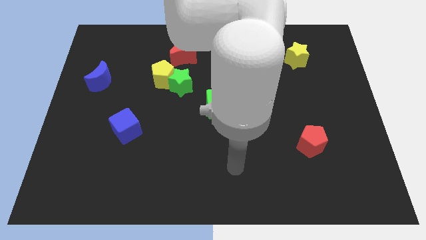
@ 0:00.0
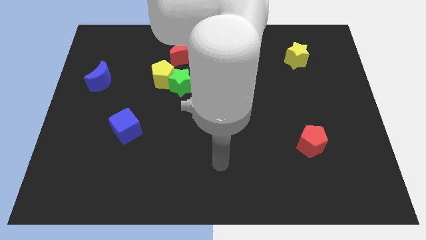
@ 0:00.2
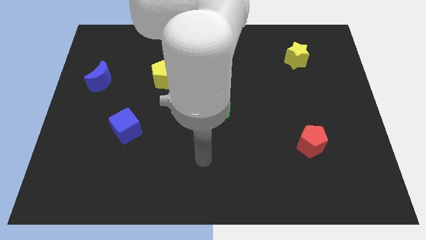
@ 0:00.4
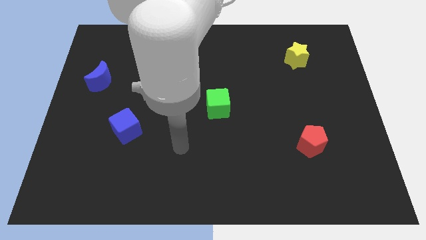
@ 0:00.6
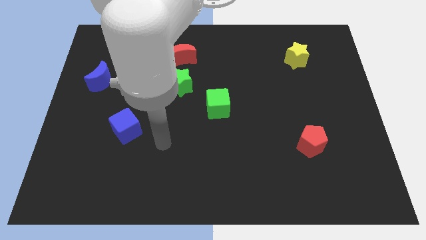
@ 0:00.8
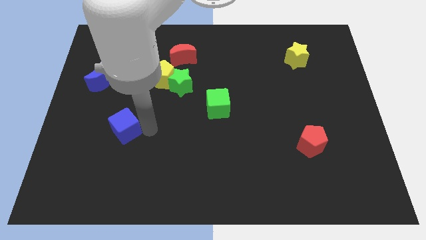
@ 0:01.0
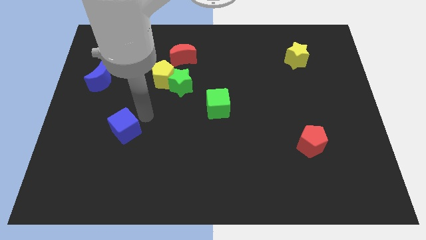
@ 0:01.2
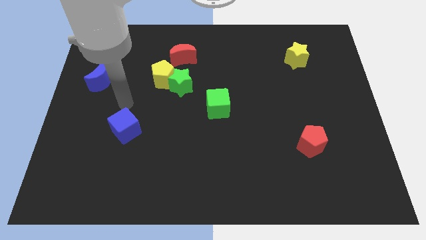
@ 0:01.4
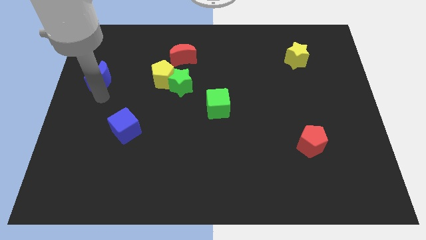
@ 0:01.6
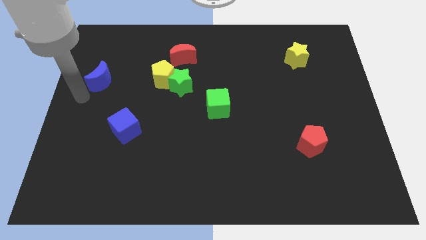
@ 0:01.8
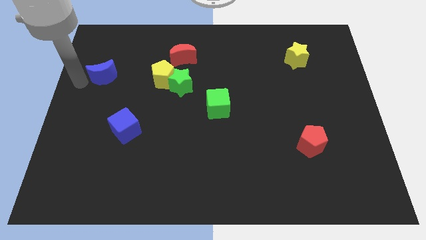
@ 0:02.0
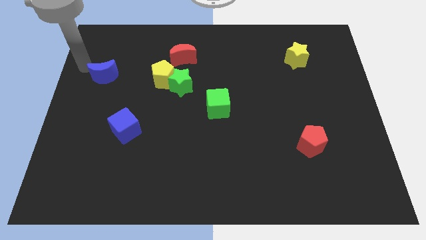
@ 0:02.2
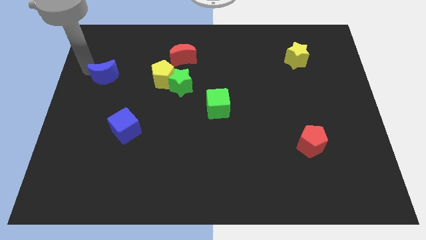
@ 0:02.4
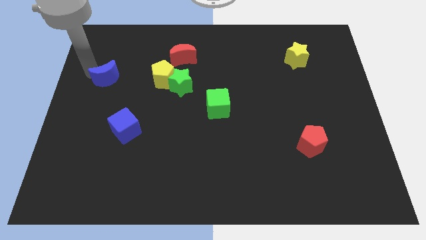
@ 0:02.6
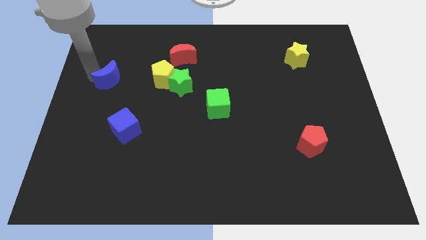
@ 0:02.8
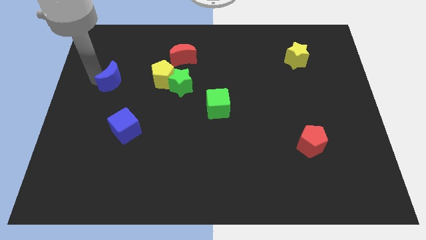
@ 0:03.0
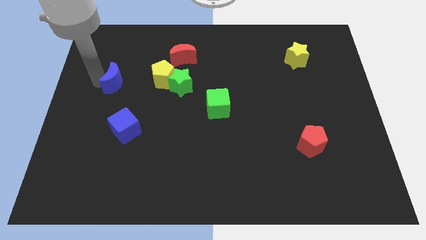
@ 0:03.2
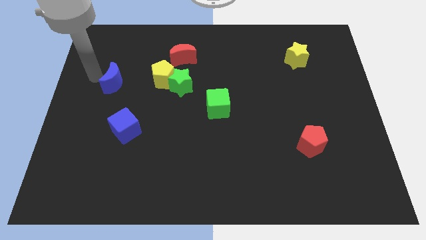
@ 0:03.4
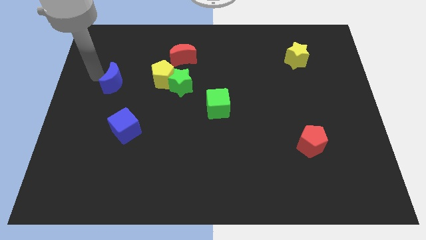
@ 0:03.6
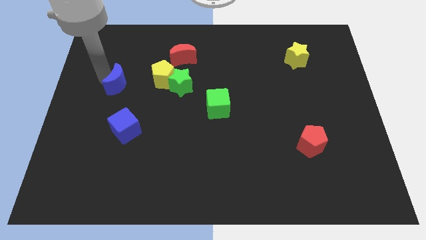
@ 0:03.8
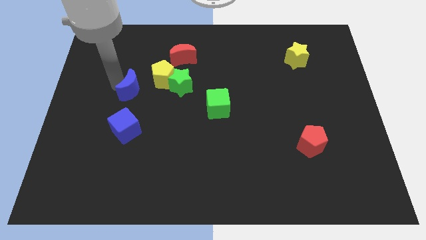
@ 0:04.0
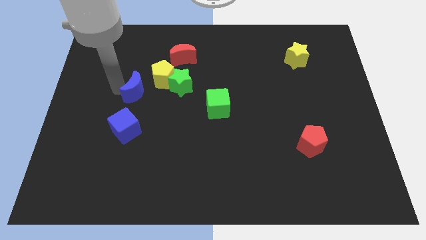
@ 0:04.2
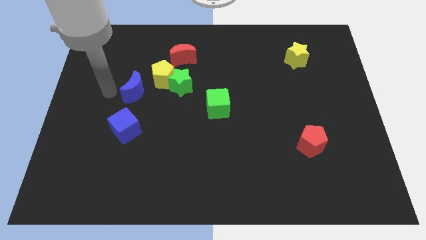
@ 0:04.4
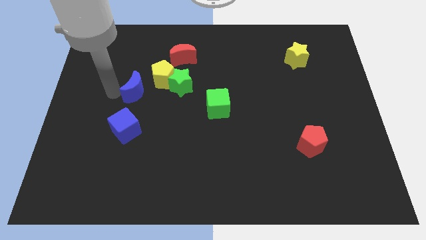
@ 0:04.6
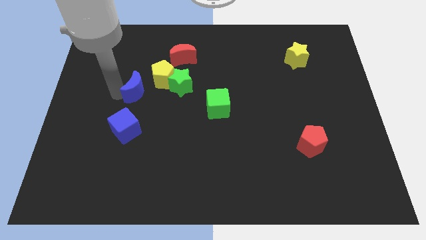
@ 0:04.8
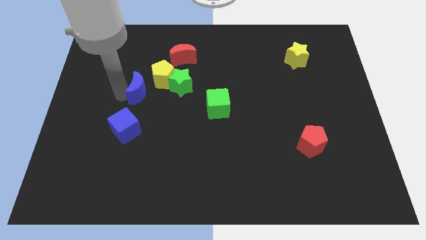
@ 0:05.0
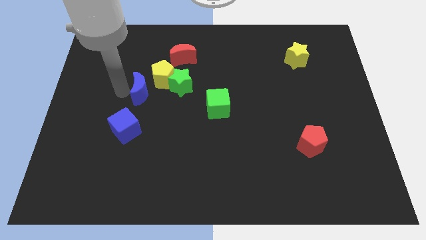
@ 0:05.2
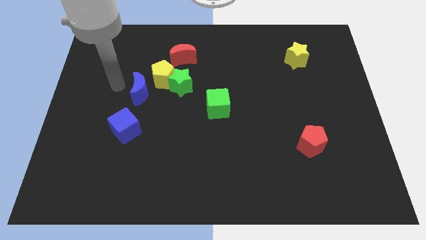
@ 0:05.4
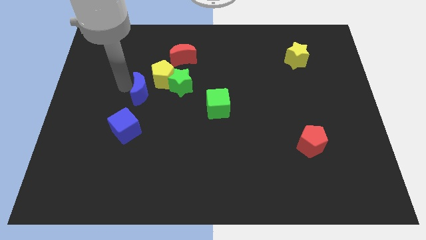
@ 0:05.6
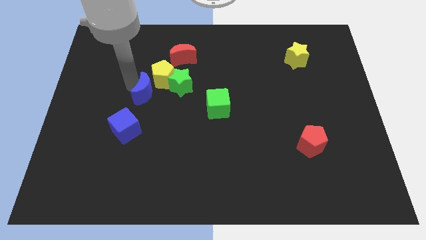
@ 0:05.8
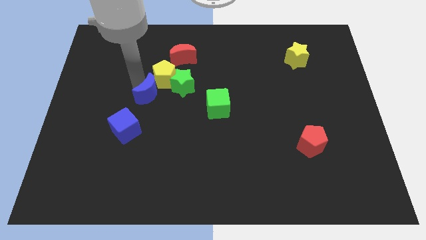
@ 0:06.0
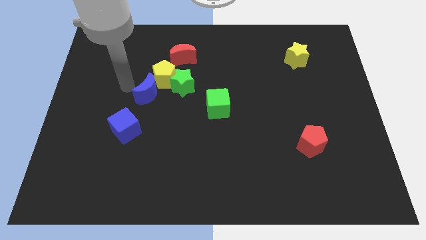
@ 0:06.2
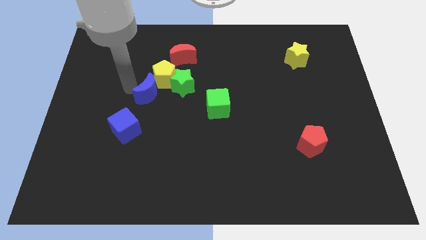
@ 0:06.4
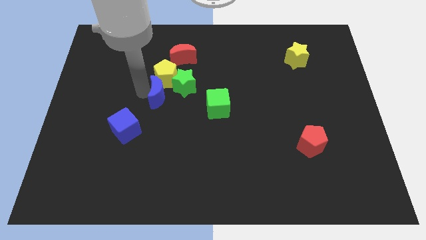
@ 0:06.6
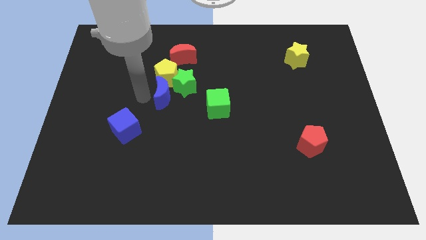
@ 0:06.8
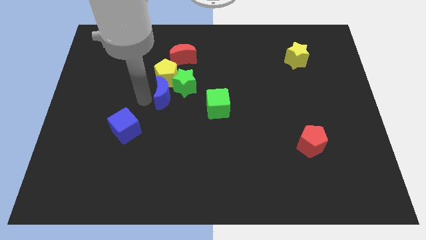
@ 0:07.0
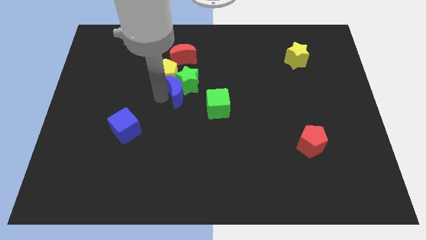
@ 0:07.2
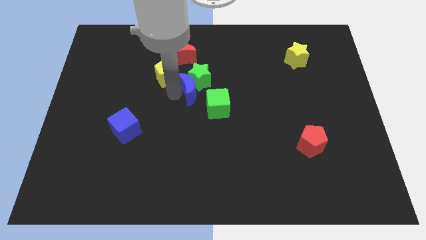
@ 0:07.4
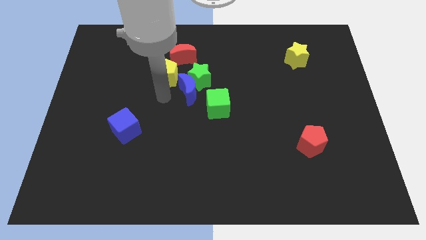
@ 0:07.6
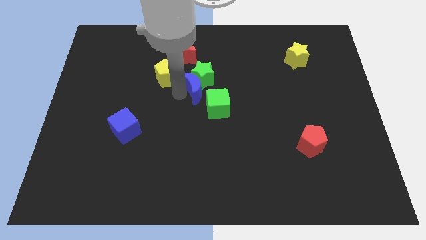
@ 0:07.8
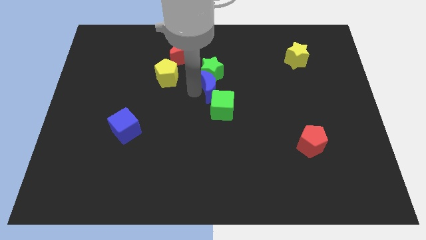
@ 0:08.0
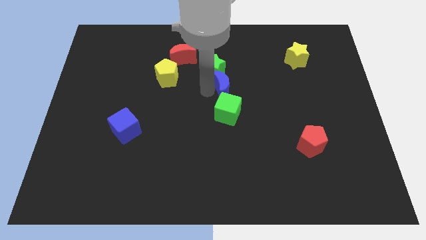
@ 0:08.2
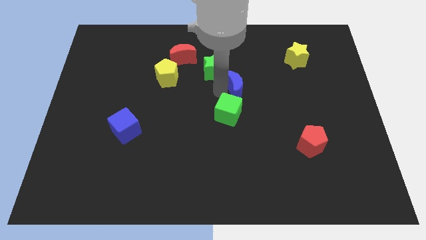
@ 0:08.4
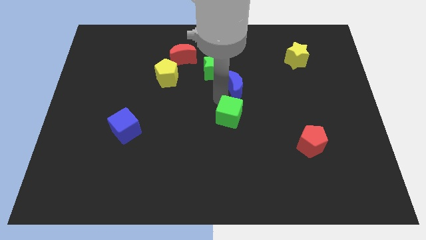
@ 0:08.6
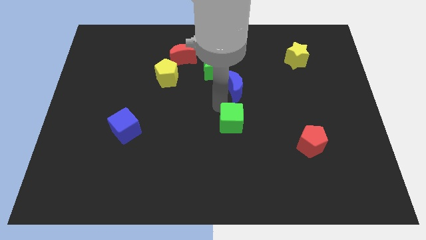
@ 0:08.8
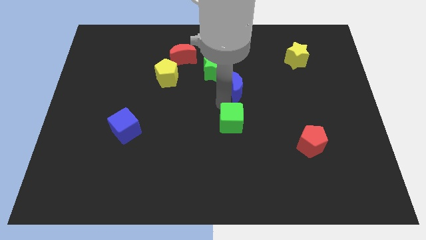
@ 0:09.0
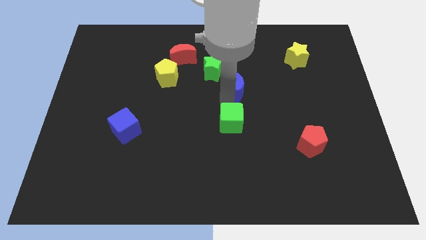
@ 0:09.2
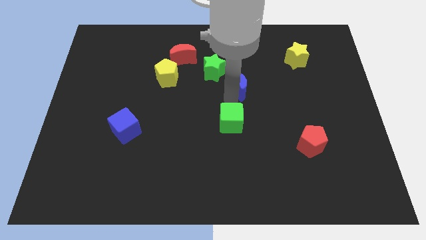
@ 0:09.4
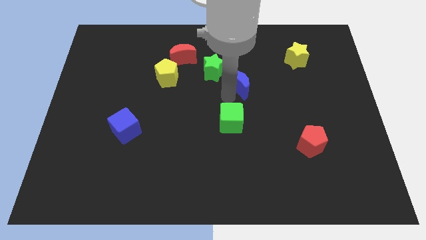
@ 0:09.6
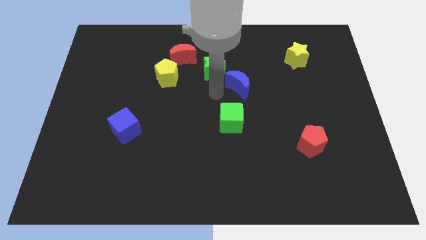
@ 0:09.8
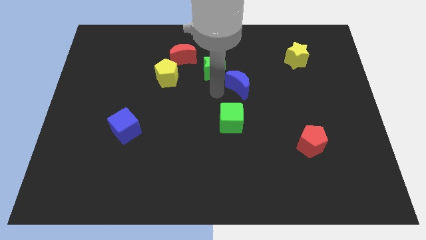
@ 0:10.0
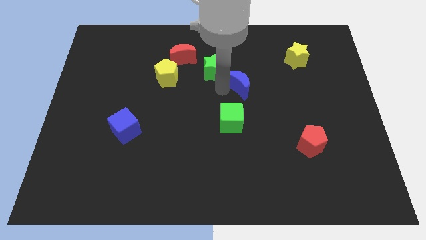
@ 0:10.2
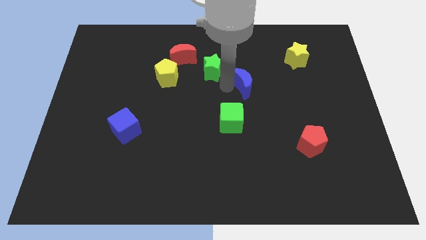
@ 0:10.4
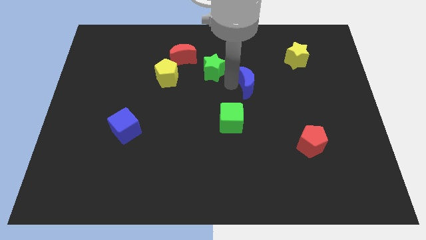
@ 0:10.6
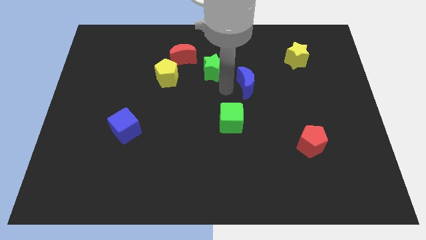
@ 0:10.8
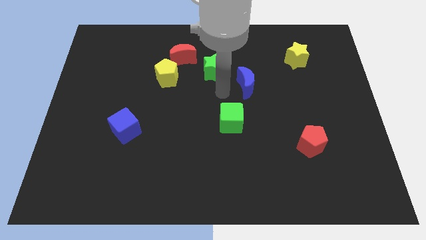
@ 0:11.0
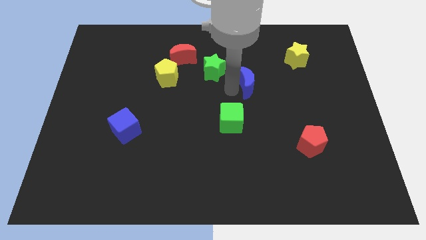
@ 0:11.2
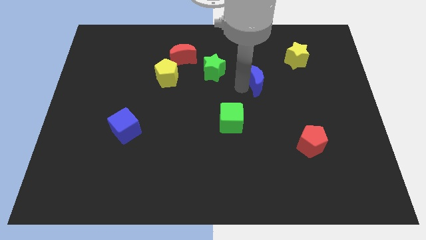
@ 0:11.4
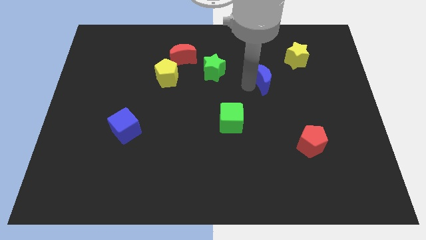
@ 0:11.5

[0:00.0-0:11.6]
slide the blue moon to the bottom left side of the yellow star

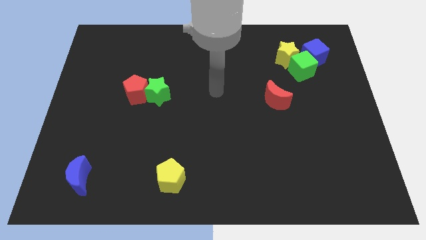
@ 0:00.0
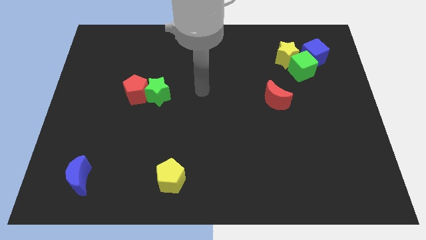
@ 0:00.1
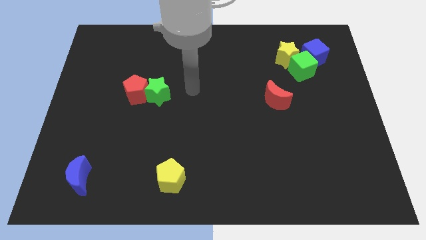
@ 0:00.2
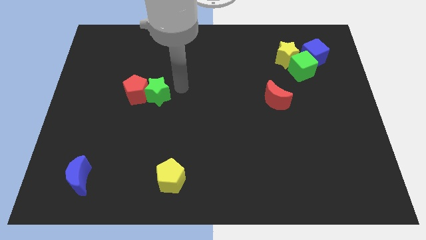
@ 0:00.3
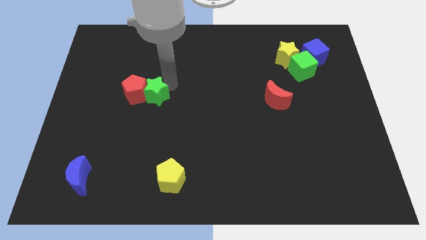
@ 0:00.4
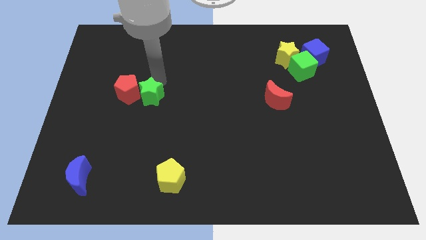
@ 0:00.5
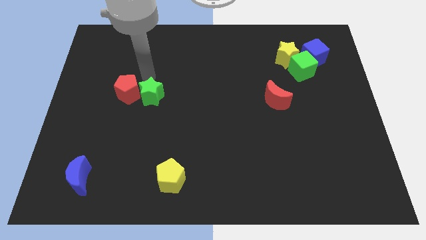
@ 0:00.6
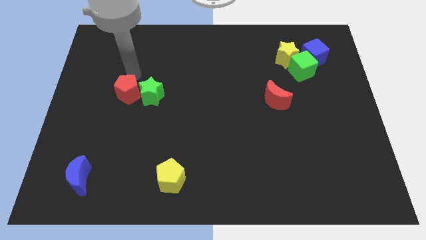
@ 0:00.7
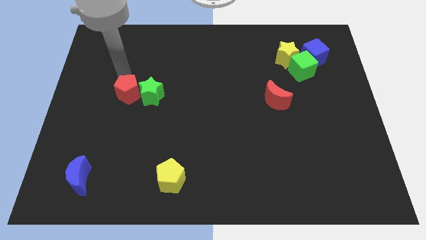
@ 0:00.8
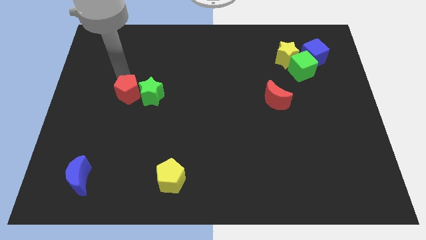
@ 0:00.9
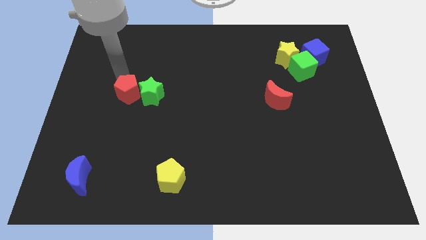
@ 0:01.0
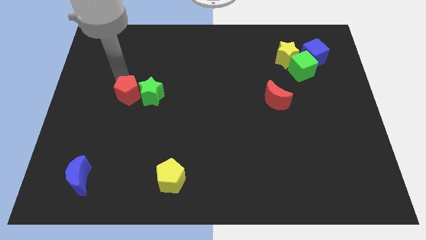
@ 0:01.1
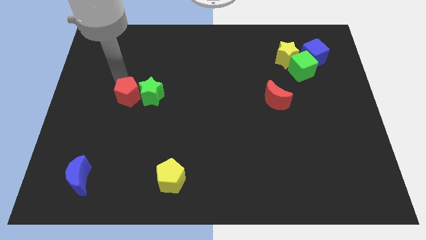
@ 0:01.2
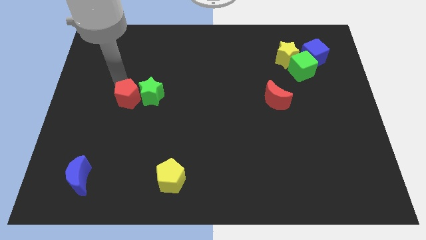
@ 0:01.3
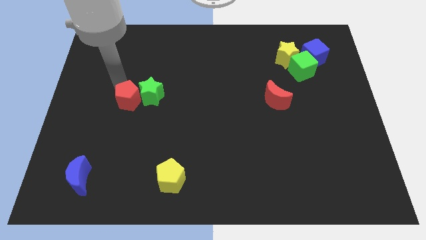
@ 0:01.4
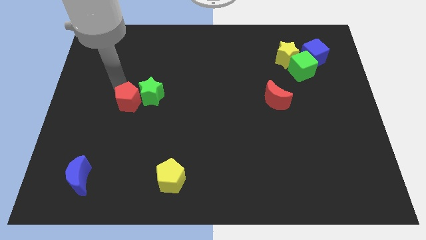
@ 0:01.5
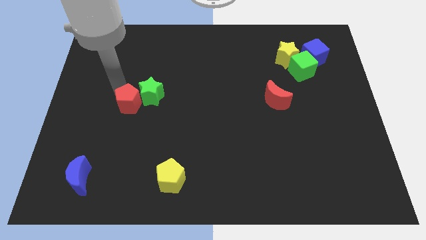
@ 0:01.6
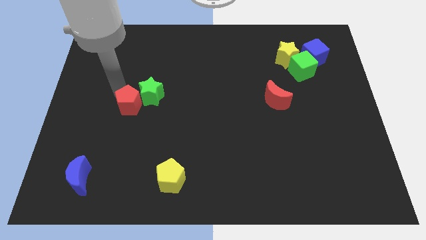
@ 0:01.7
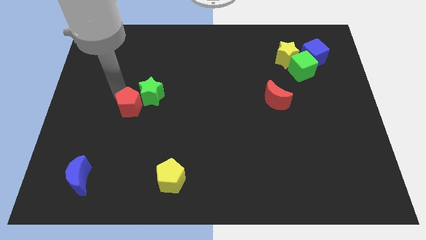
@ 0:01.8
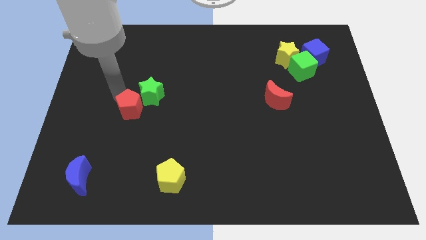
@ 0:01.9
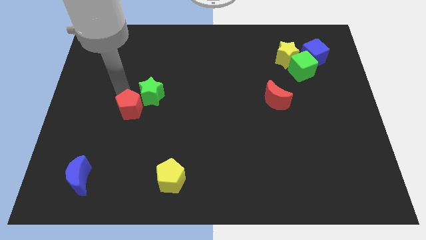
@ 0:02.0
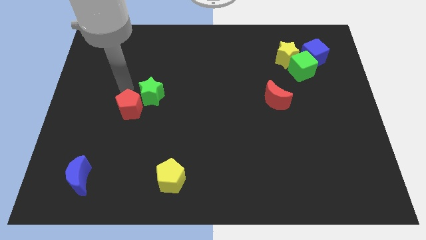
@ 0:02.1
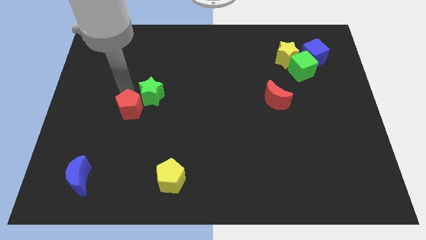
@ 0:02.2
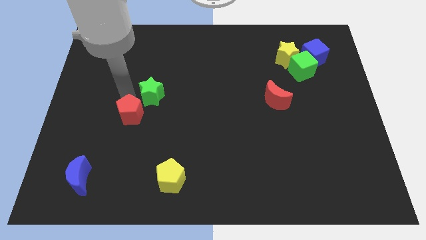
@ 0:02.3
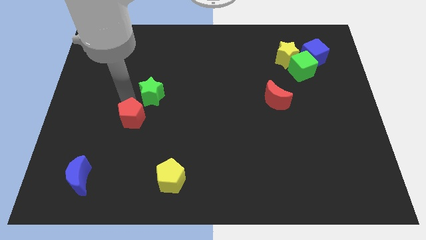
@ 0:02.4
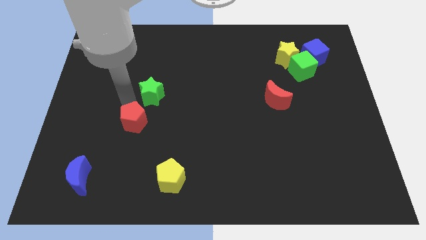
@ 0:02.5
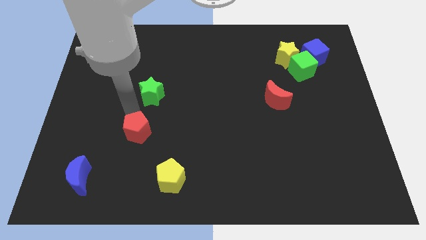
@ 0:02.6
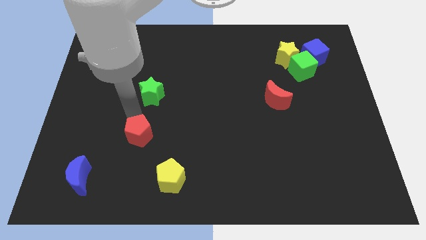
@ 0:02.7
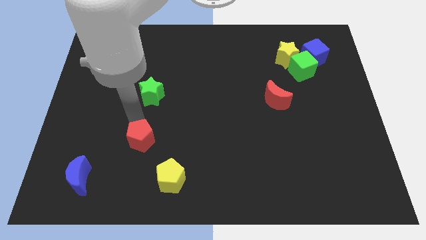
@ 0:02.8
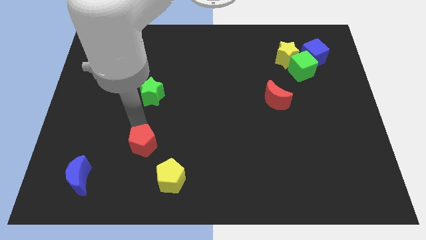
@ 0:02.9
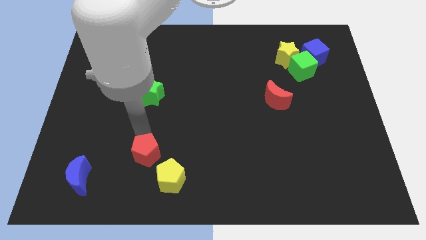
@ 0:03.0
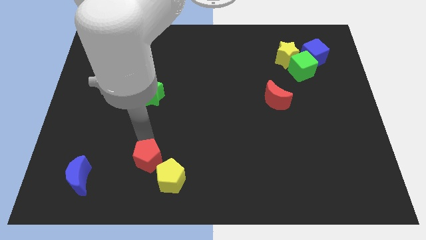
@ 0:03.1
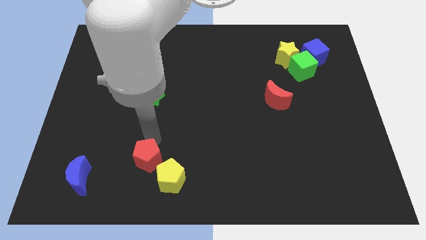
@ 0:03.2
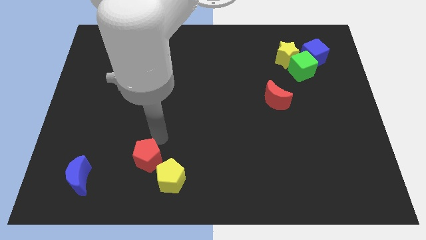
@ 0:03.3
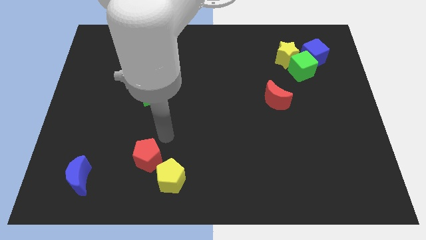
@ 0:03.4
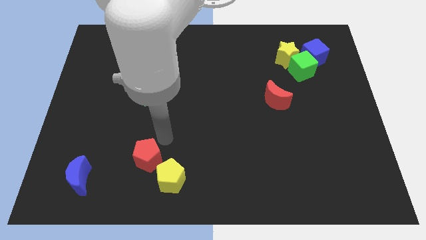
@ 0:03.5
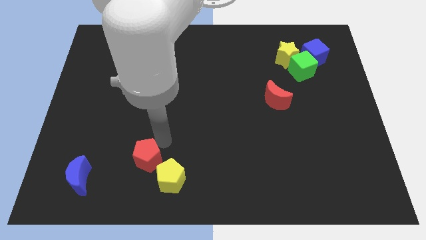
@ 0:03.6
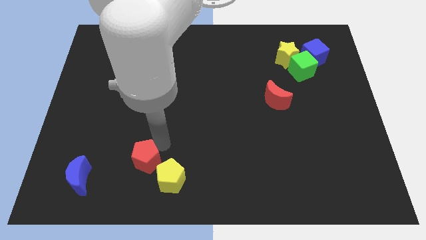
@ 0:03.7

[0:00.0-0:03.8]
put the red pentagon to the right side of the blue moon
